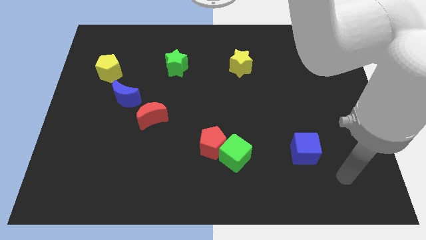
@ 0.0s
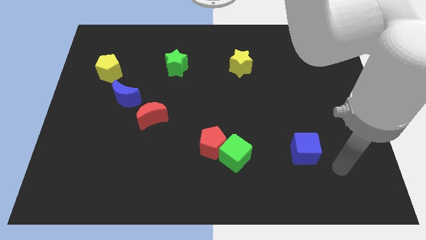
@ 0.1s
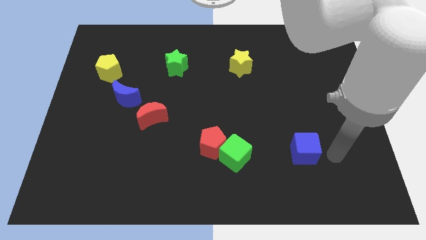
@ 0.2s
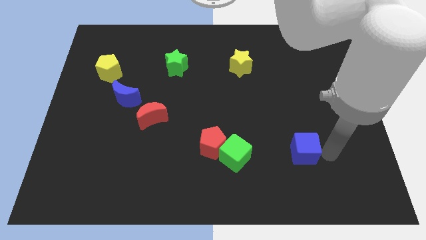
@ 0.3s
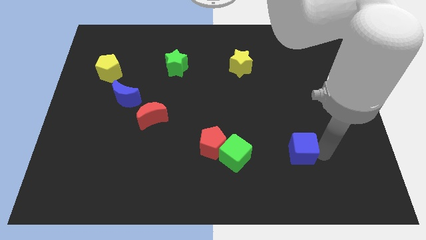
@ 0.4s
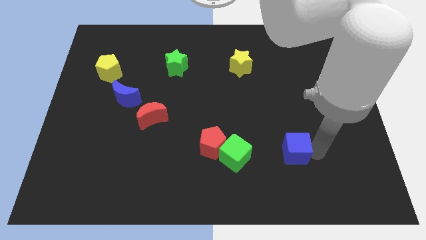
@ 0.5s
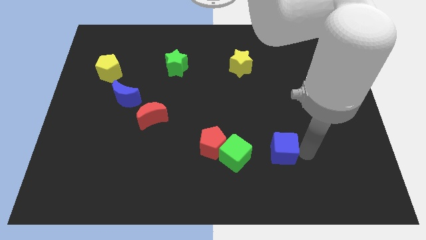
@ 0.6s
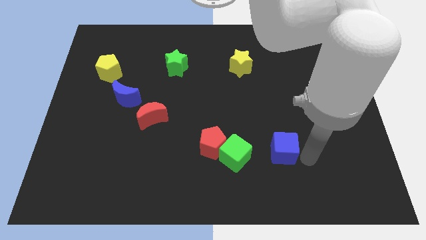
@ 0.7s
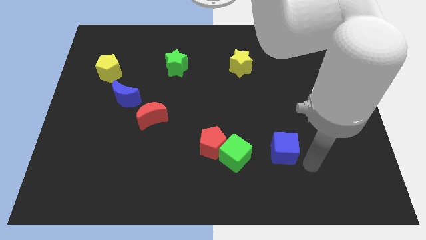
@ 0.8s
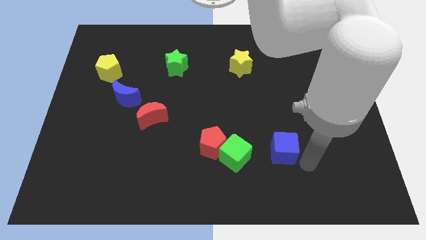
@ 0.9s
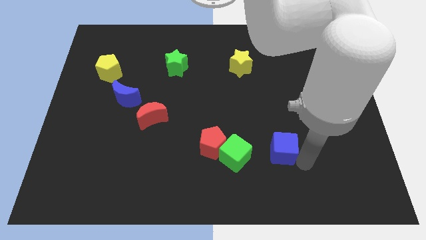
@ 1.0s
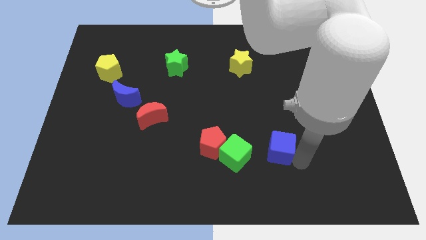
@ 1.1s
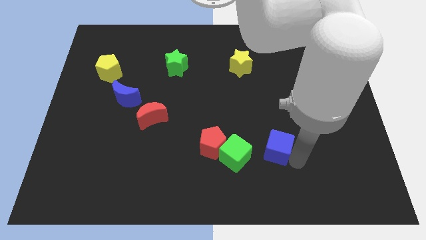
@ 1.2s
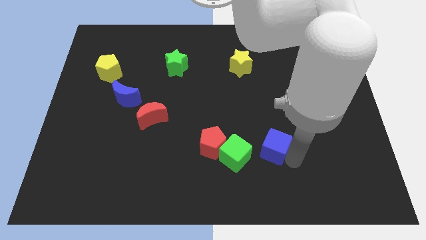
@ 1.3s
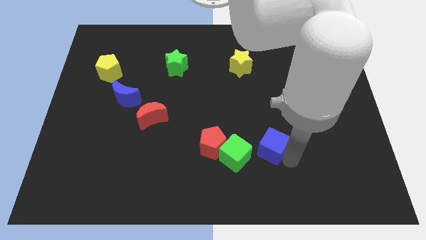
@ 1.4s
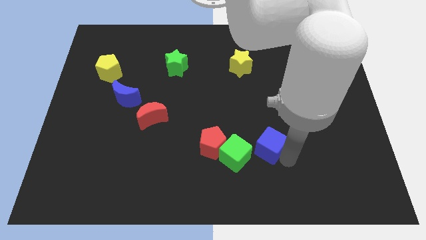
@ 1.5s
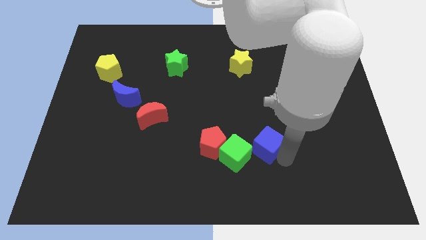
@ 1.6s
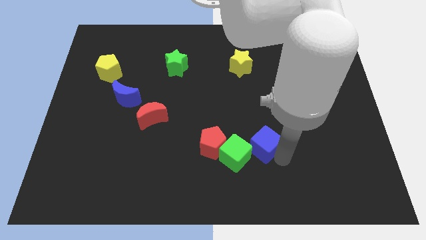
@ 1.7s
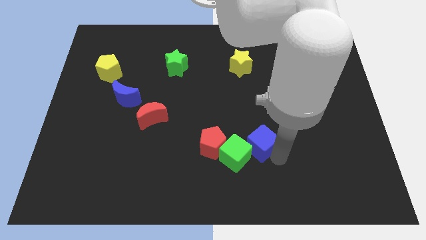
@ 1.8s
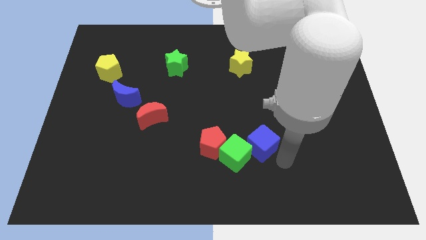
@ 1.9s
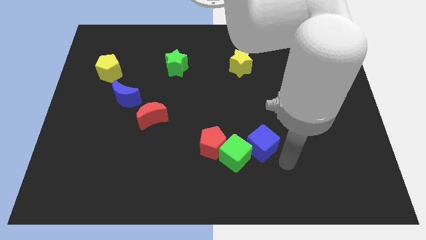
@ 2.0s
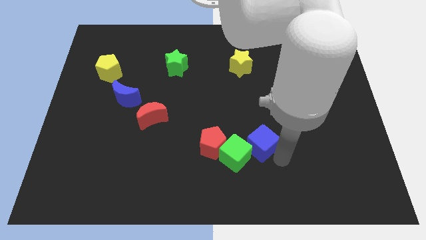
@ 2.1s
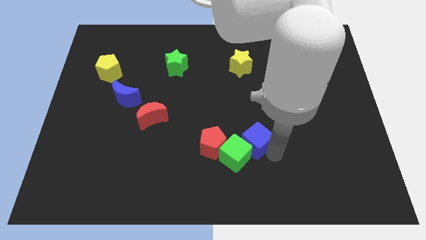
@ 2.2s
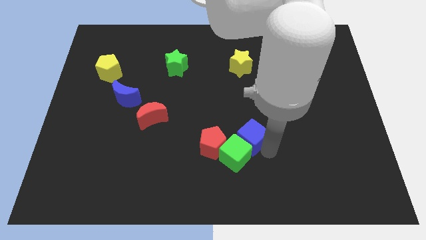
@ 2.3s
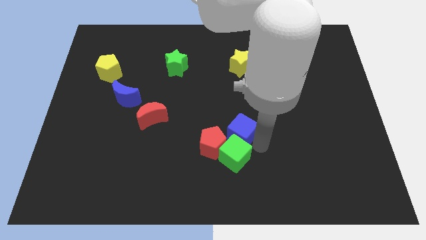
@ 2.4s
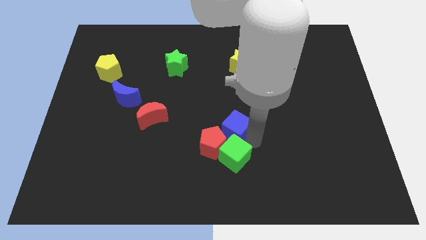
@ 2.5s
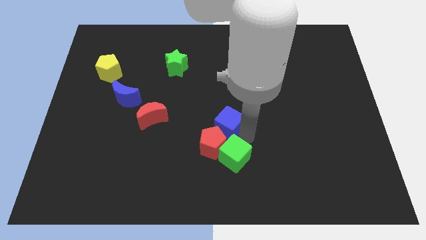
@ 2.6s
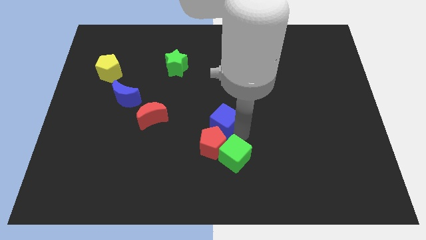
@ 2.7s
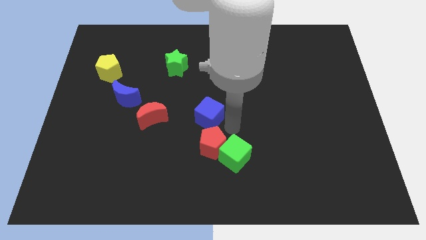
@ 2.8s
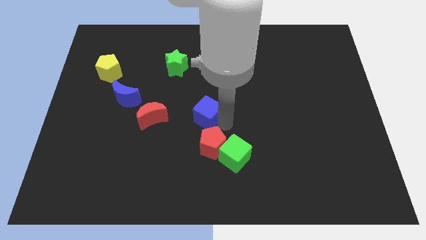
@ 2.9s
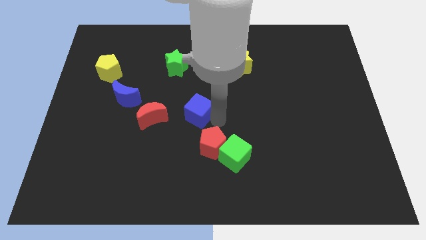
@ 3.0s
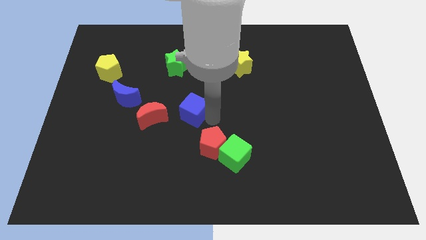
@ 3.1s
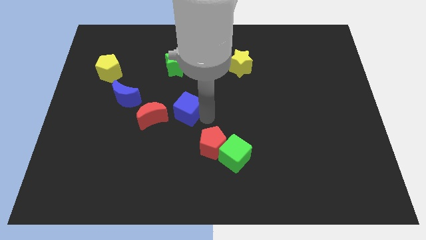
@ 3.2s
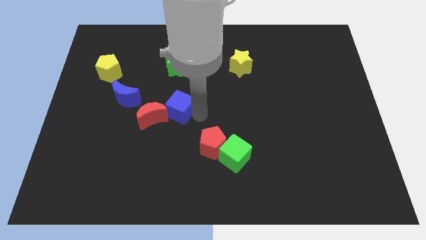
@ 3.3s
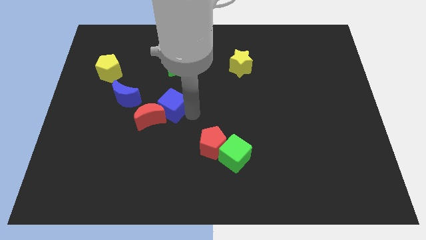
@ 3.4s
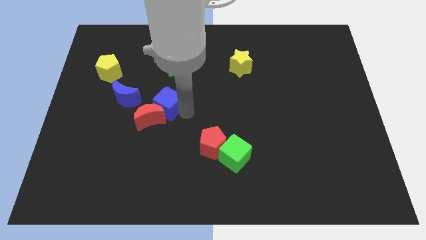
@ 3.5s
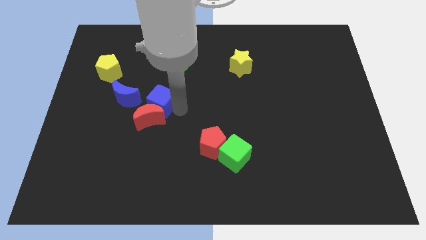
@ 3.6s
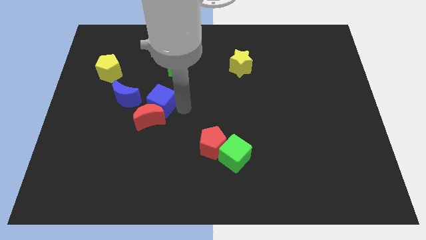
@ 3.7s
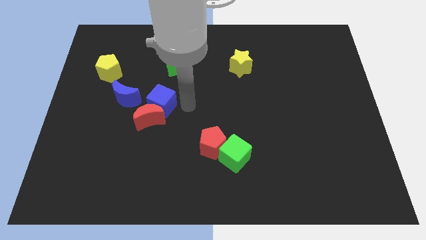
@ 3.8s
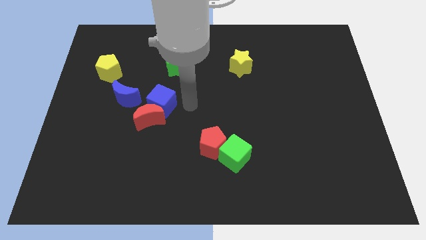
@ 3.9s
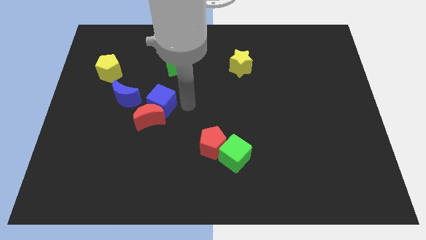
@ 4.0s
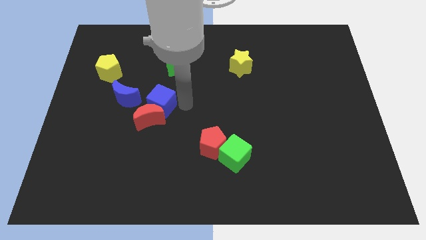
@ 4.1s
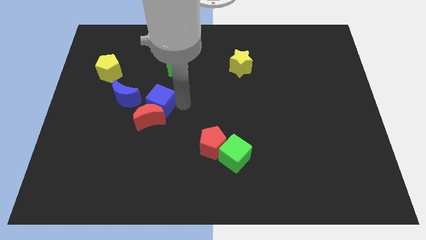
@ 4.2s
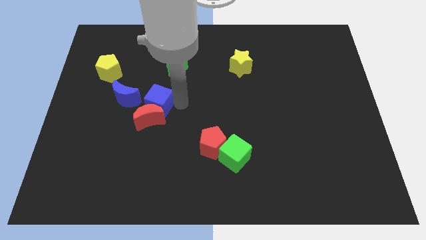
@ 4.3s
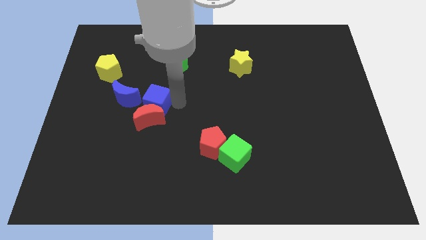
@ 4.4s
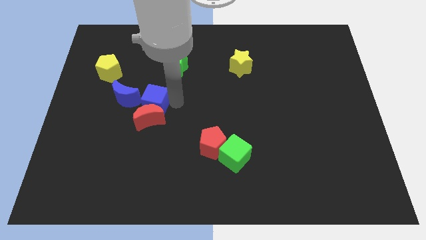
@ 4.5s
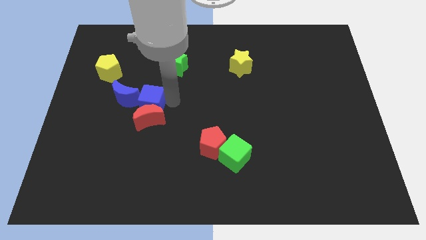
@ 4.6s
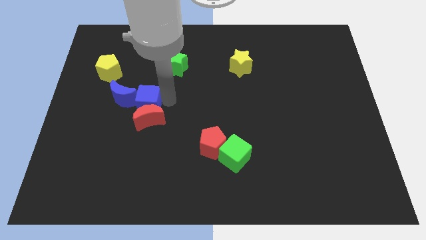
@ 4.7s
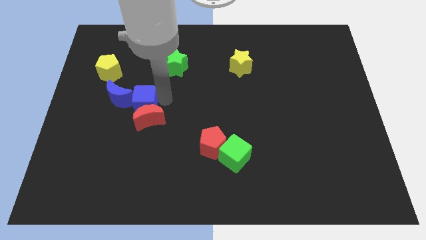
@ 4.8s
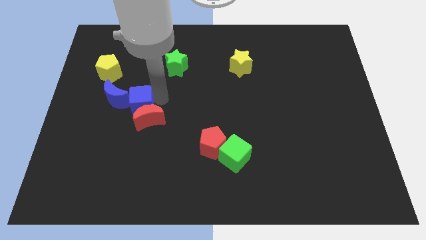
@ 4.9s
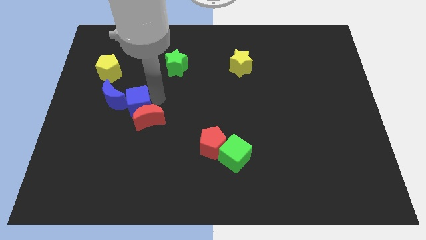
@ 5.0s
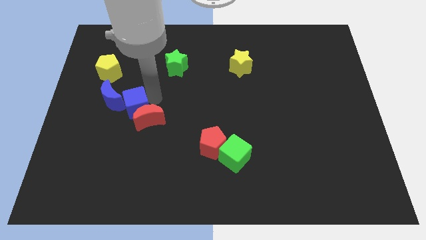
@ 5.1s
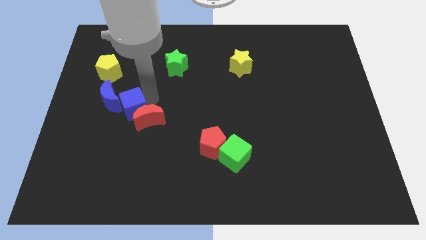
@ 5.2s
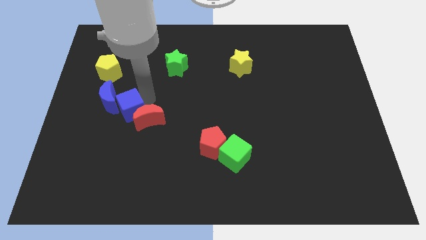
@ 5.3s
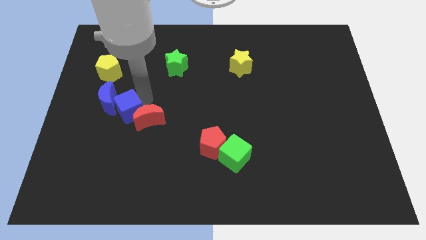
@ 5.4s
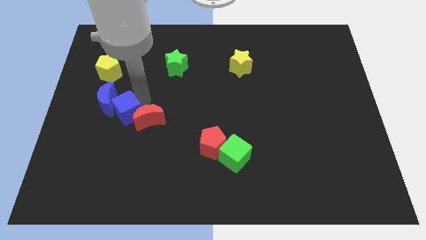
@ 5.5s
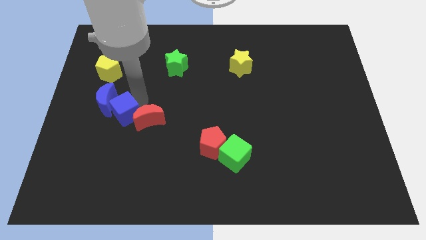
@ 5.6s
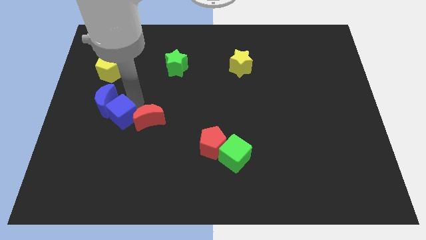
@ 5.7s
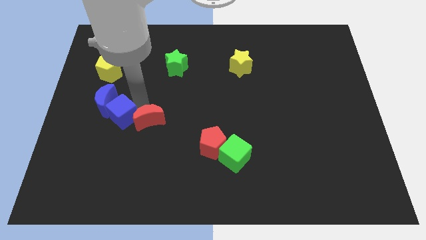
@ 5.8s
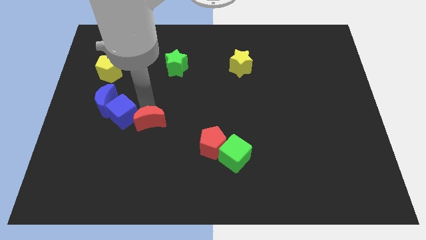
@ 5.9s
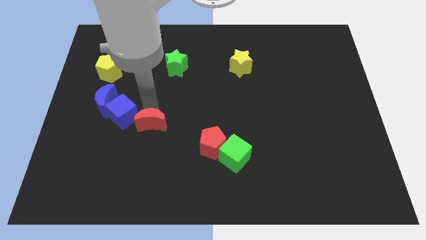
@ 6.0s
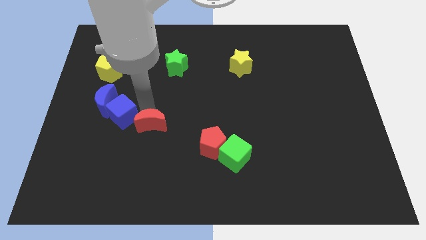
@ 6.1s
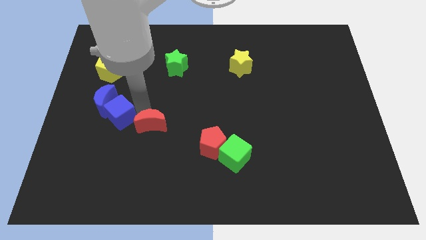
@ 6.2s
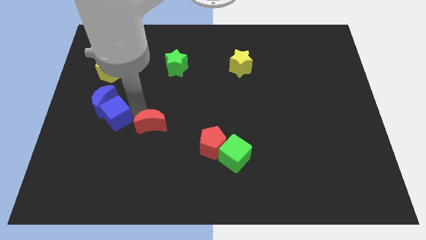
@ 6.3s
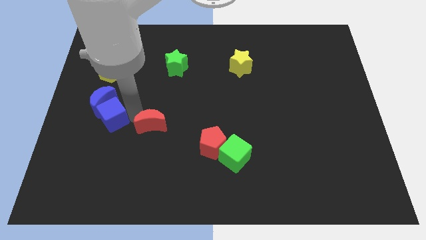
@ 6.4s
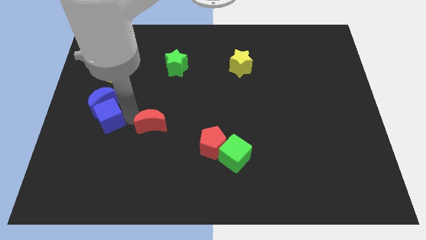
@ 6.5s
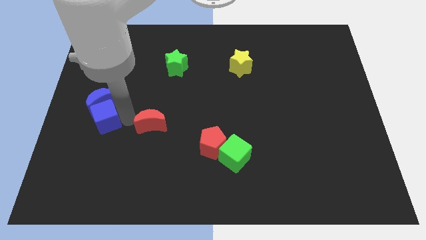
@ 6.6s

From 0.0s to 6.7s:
put the blue cube to the bottom left side of the blue moon

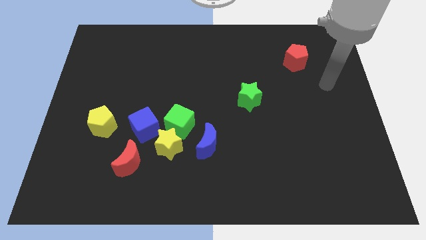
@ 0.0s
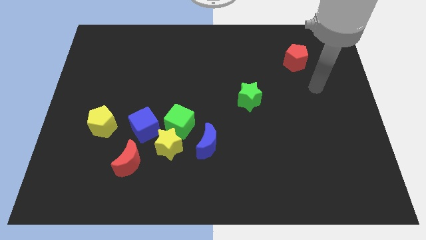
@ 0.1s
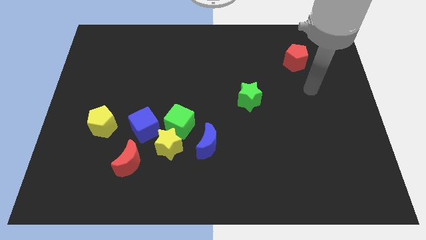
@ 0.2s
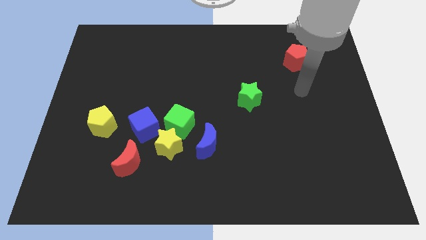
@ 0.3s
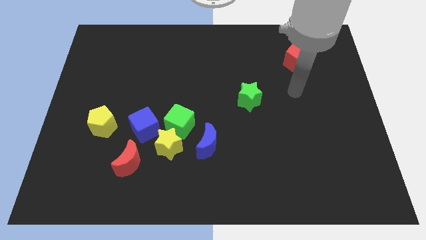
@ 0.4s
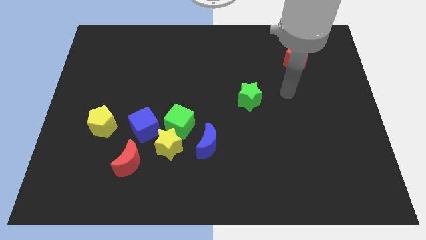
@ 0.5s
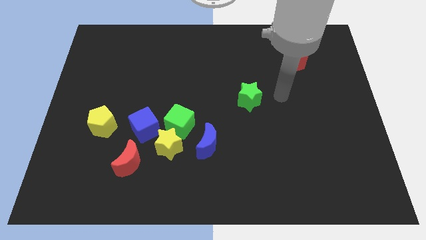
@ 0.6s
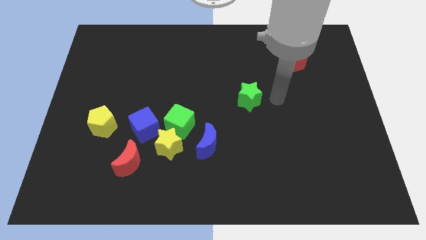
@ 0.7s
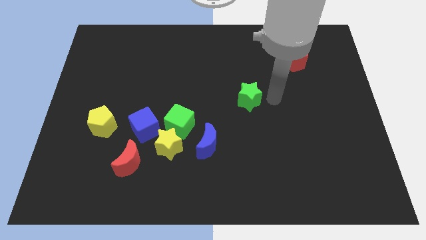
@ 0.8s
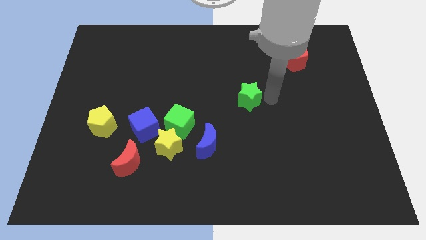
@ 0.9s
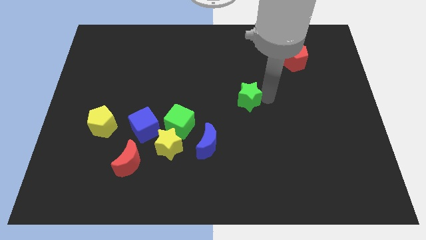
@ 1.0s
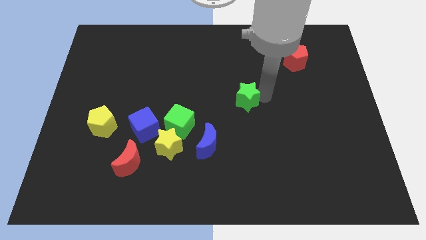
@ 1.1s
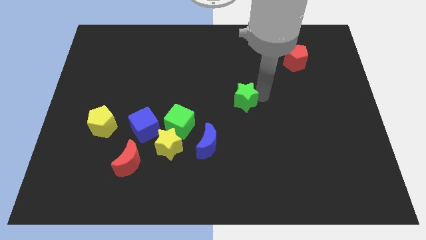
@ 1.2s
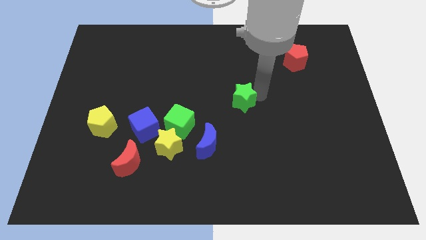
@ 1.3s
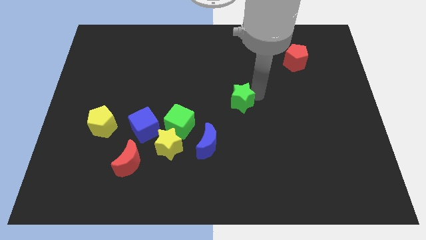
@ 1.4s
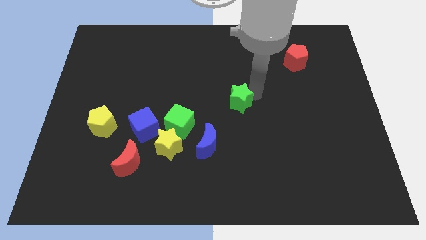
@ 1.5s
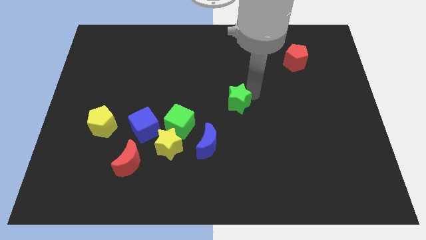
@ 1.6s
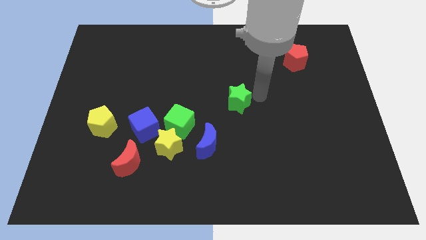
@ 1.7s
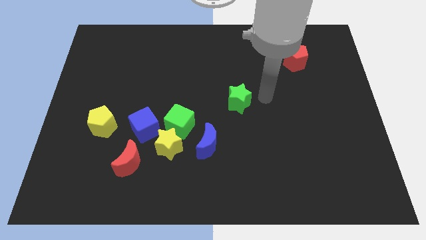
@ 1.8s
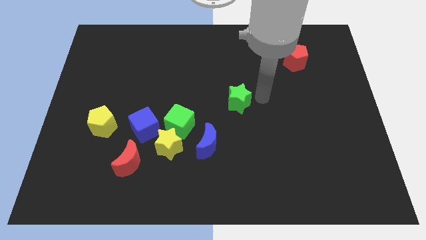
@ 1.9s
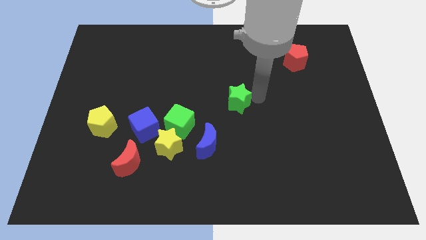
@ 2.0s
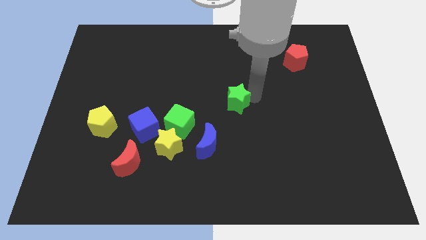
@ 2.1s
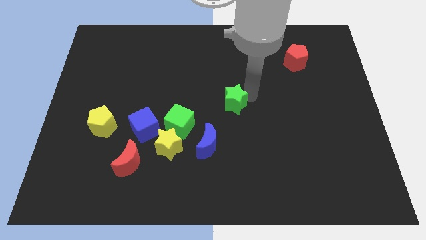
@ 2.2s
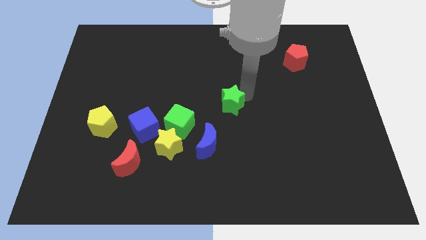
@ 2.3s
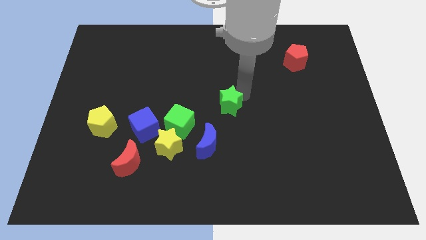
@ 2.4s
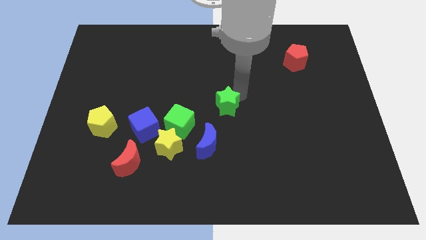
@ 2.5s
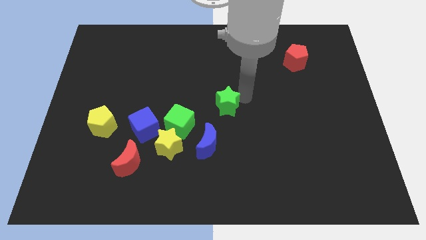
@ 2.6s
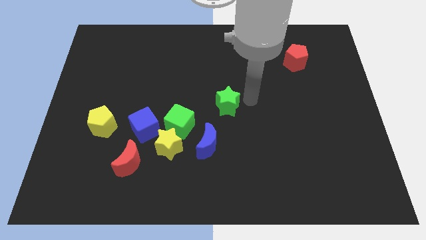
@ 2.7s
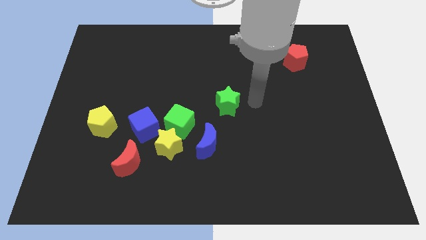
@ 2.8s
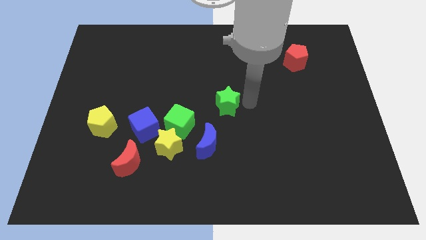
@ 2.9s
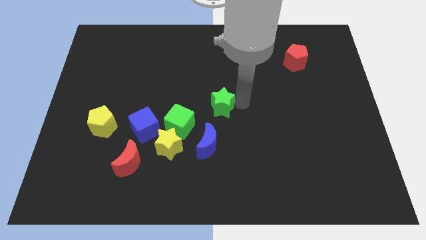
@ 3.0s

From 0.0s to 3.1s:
put the green star to the top right of the green cube
